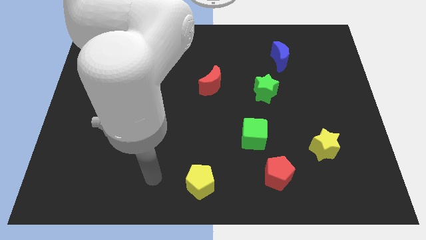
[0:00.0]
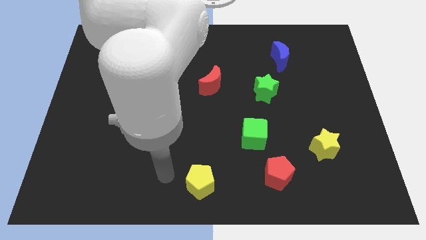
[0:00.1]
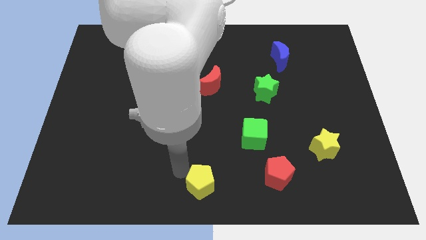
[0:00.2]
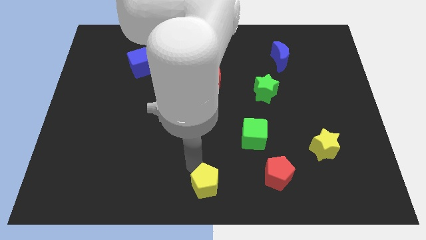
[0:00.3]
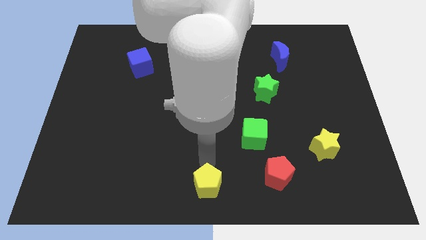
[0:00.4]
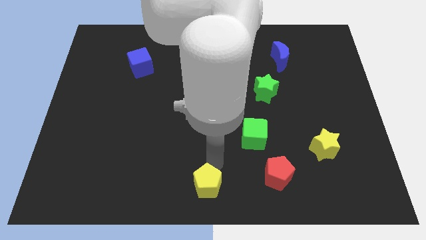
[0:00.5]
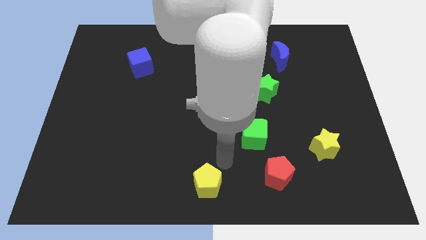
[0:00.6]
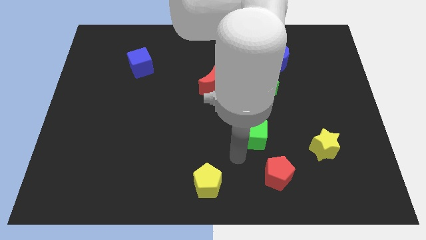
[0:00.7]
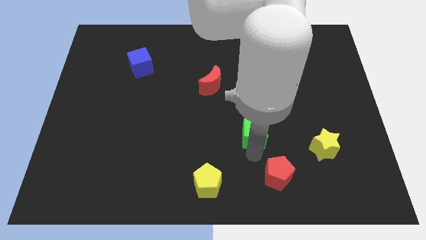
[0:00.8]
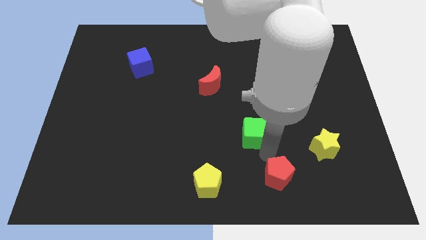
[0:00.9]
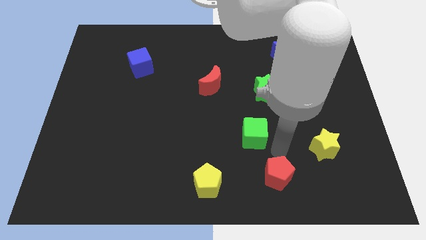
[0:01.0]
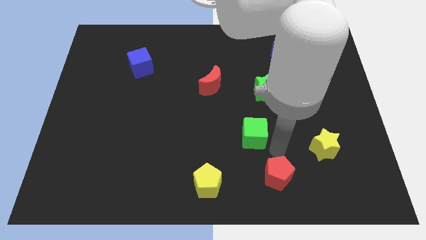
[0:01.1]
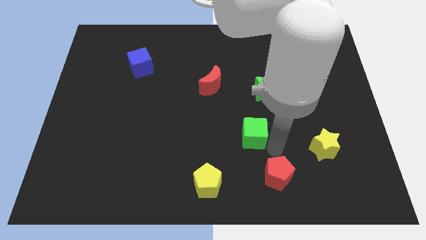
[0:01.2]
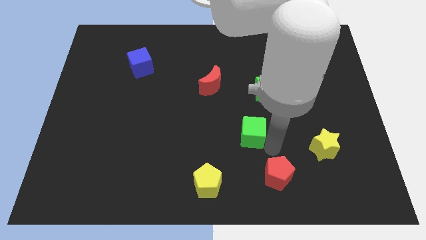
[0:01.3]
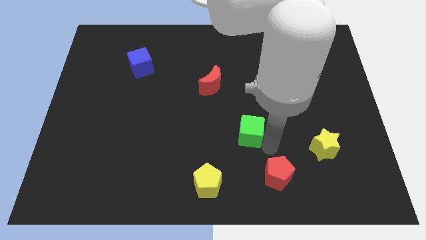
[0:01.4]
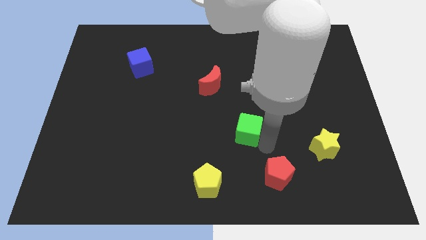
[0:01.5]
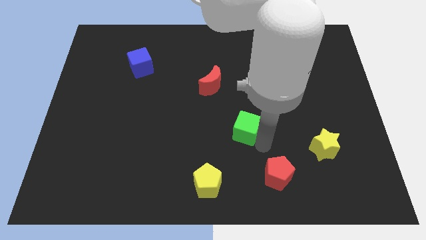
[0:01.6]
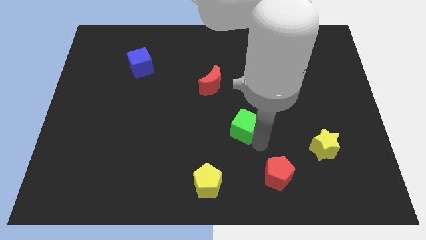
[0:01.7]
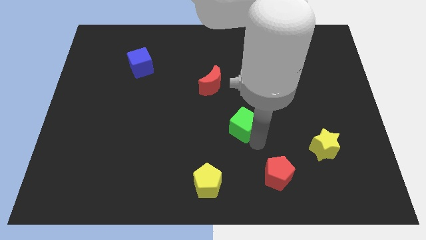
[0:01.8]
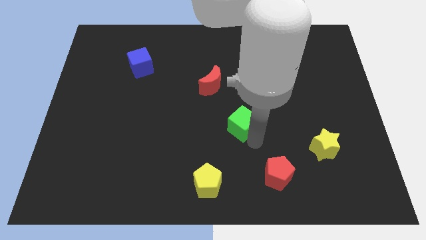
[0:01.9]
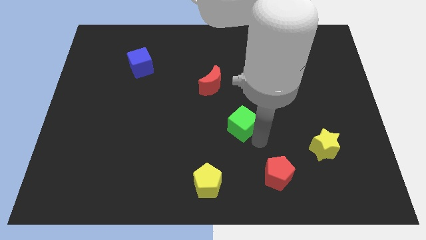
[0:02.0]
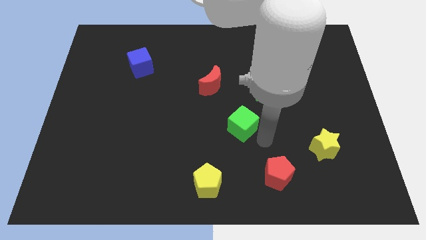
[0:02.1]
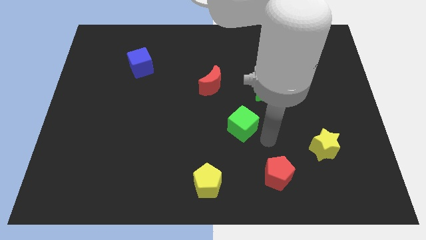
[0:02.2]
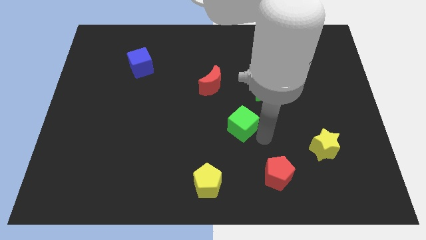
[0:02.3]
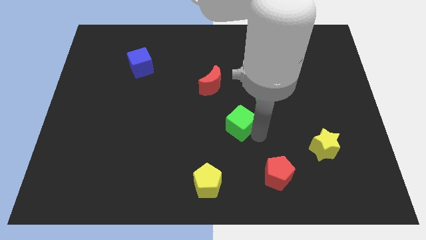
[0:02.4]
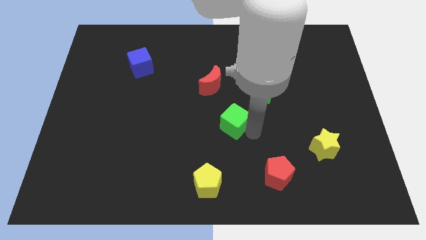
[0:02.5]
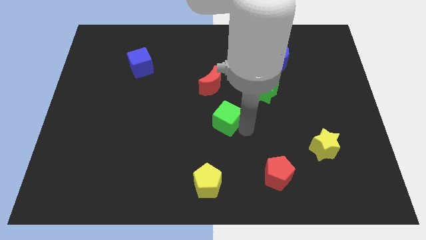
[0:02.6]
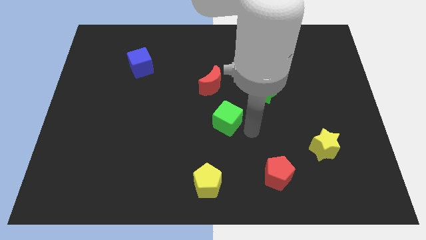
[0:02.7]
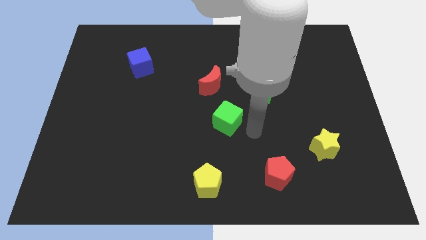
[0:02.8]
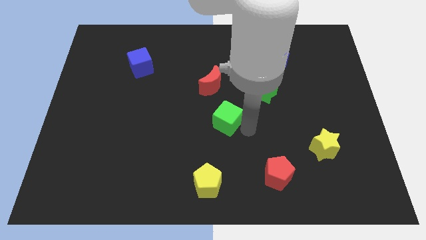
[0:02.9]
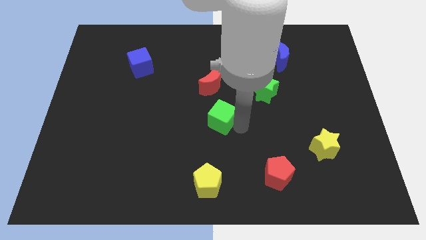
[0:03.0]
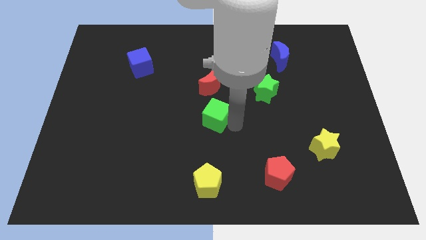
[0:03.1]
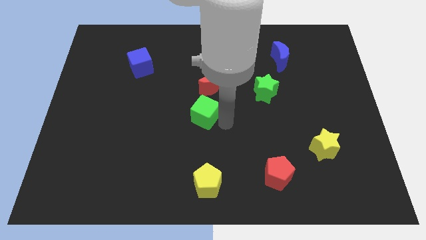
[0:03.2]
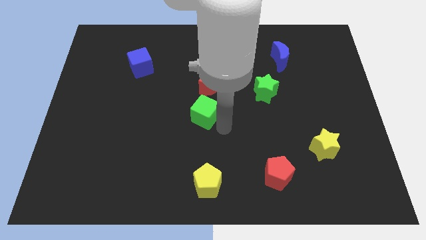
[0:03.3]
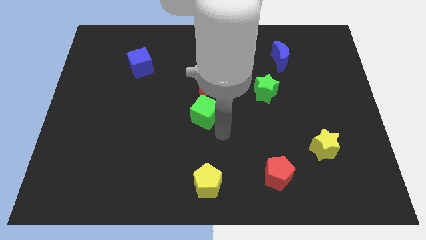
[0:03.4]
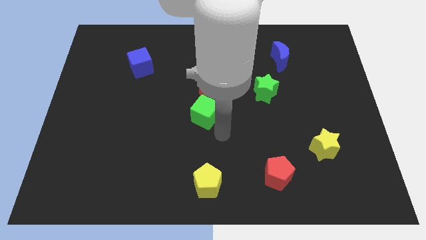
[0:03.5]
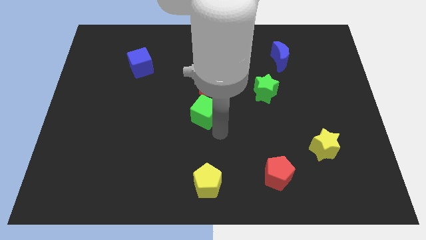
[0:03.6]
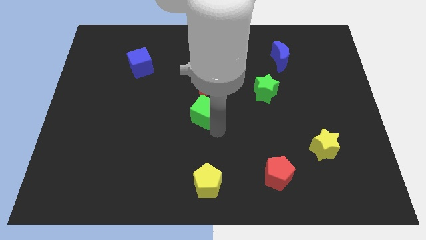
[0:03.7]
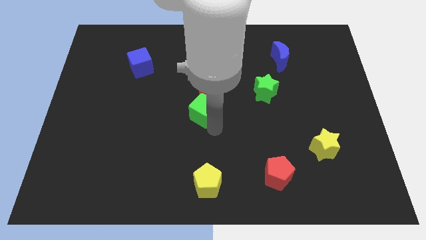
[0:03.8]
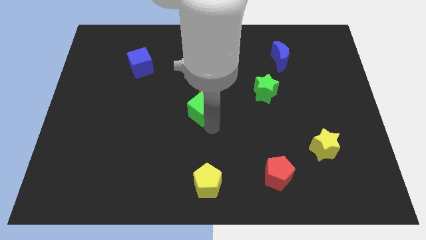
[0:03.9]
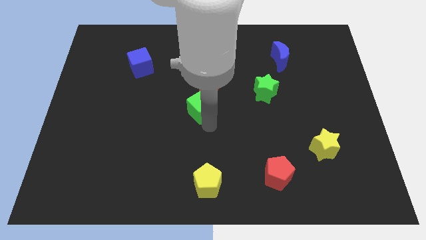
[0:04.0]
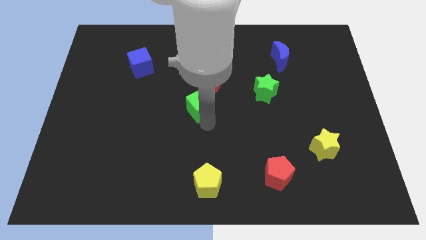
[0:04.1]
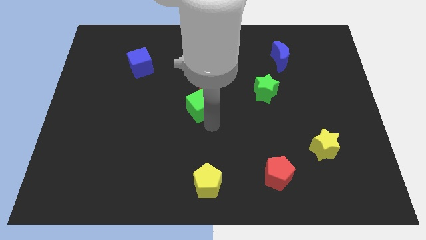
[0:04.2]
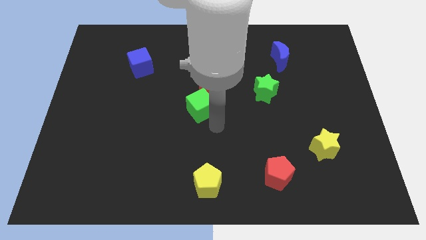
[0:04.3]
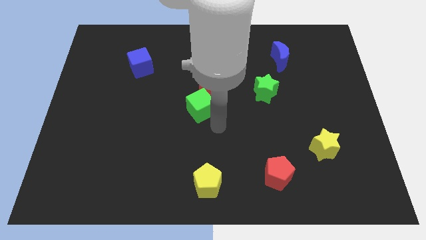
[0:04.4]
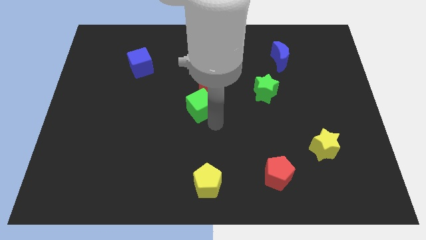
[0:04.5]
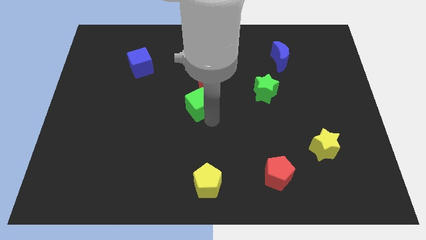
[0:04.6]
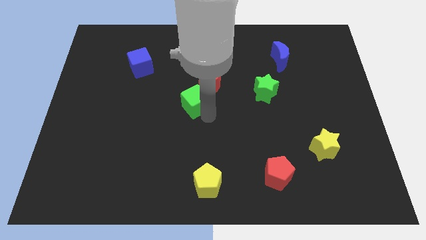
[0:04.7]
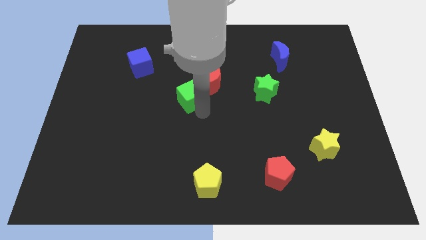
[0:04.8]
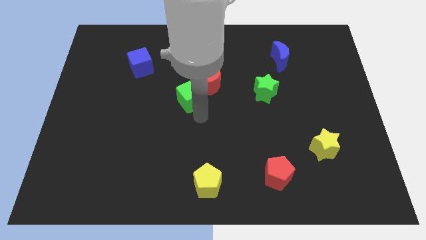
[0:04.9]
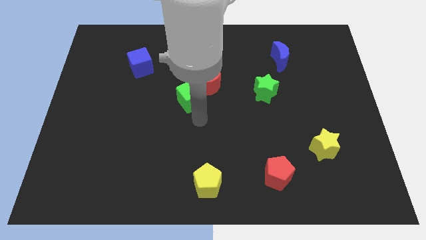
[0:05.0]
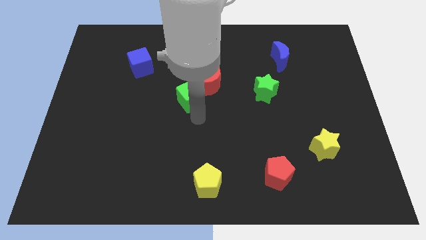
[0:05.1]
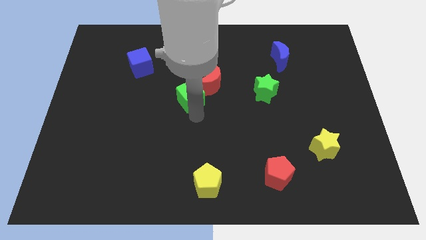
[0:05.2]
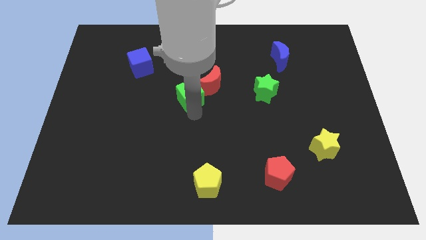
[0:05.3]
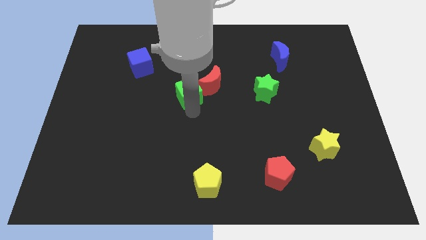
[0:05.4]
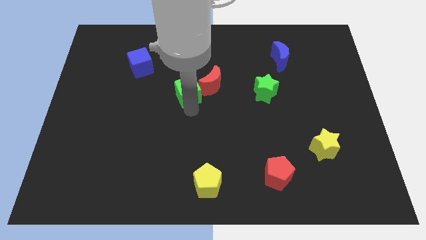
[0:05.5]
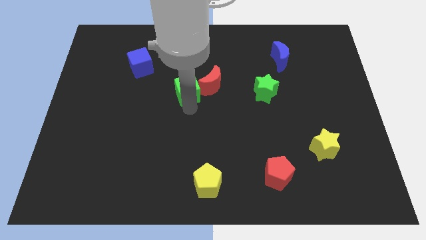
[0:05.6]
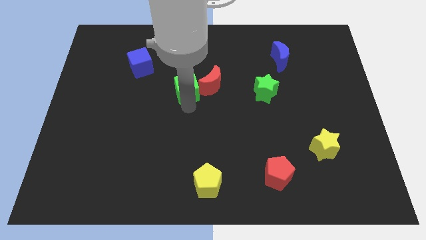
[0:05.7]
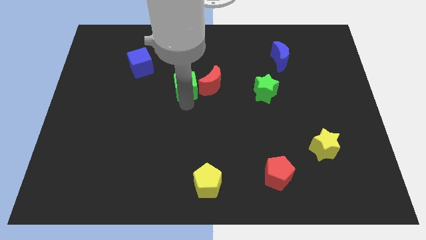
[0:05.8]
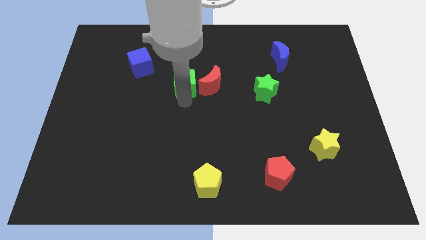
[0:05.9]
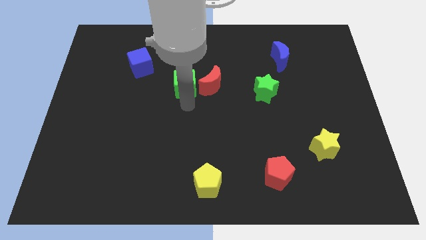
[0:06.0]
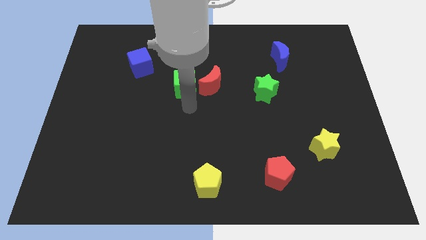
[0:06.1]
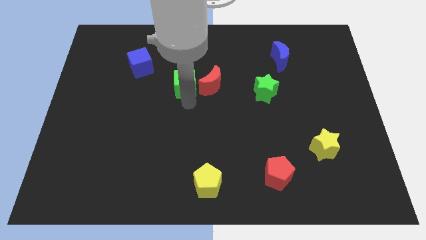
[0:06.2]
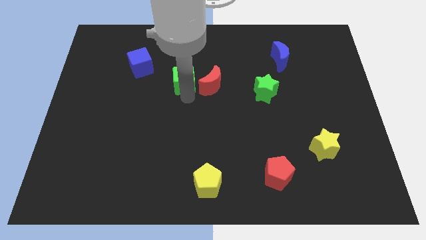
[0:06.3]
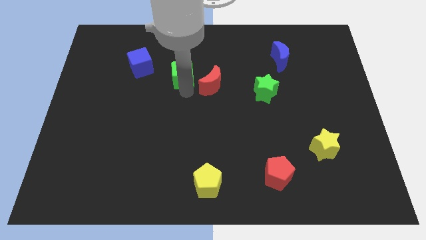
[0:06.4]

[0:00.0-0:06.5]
slide the green cube to the right side of the blue cube

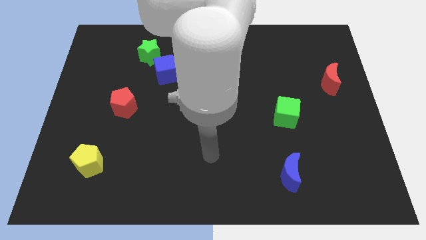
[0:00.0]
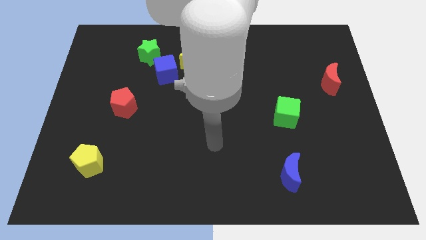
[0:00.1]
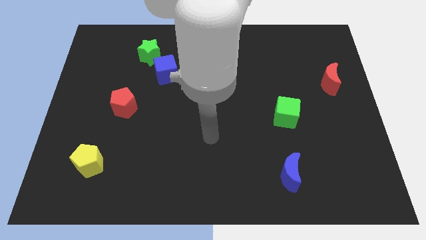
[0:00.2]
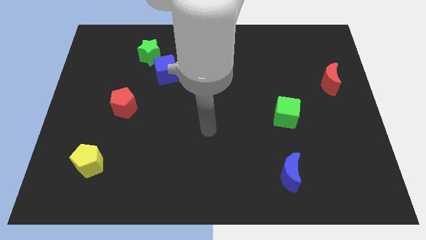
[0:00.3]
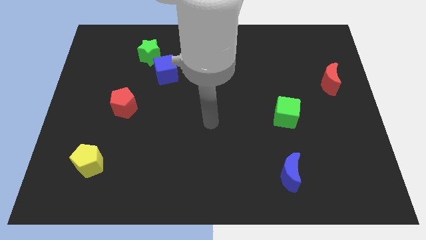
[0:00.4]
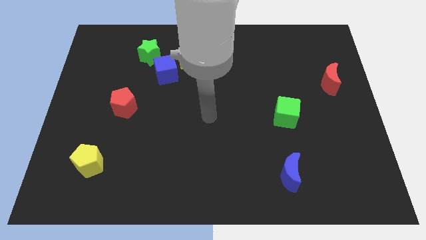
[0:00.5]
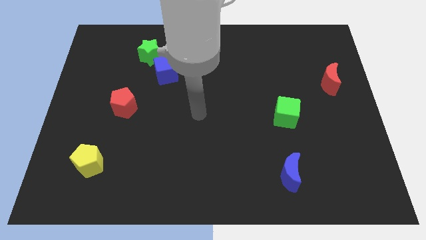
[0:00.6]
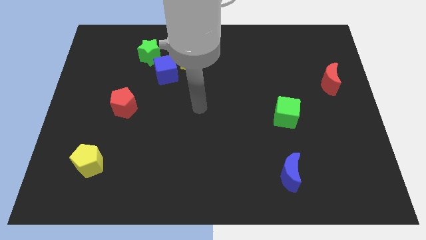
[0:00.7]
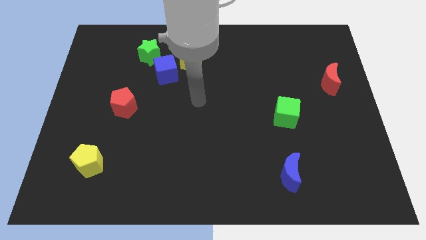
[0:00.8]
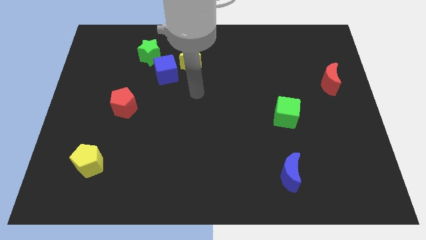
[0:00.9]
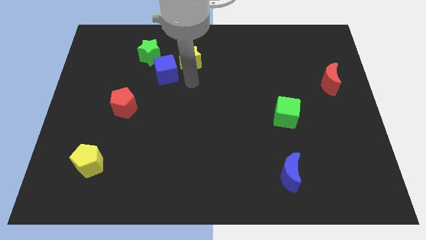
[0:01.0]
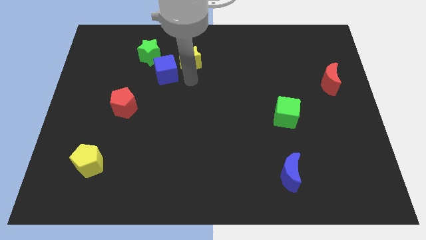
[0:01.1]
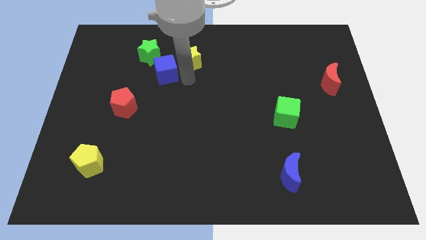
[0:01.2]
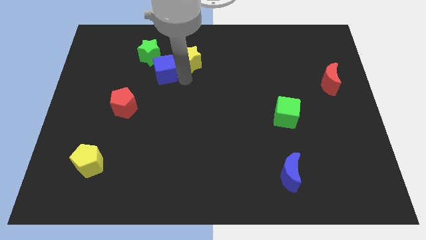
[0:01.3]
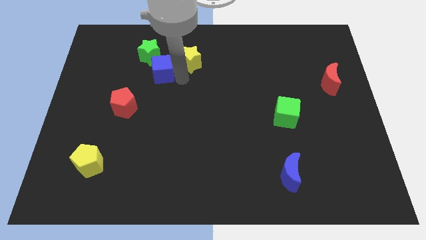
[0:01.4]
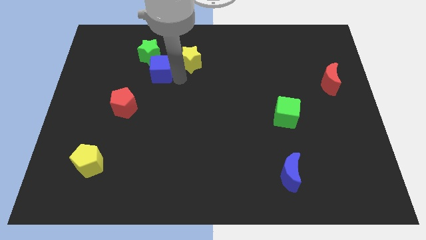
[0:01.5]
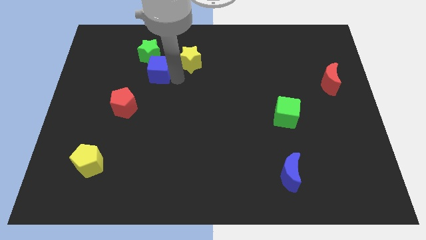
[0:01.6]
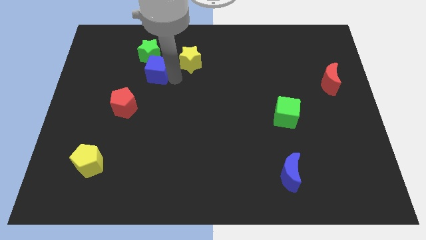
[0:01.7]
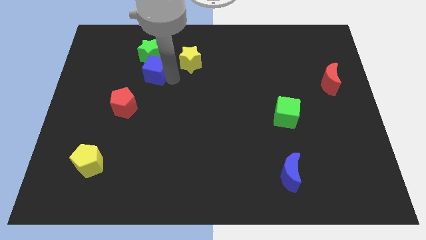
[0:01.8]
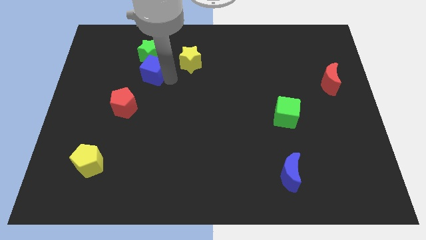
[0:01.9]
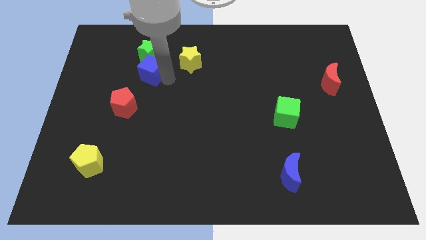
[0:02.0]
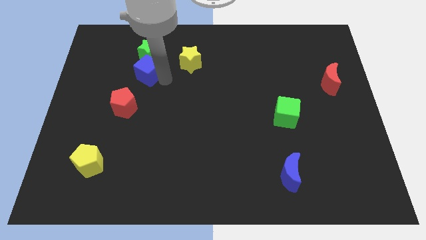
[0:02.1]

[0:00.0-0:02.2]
put the blue cube to the top of the red pentagon
